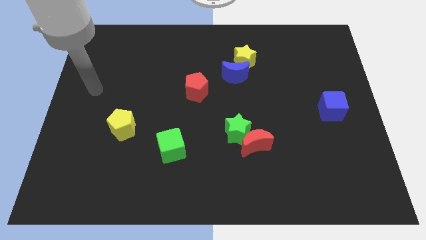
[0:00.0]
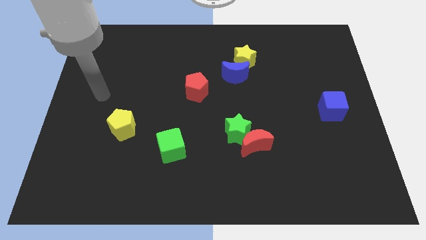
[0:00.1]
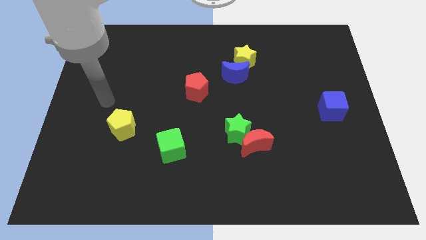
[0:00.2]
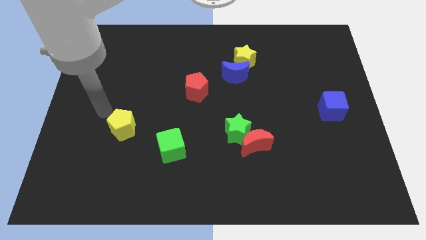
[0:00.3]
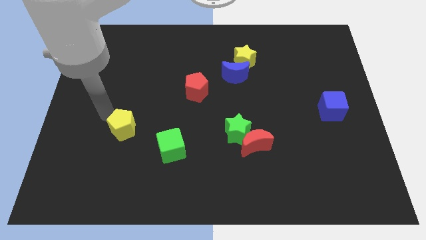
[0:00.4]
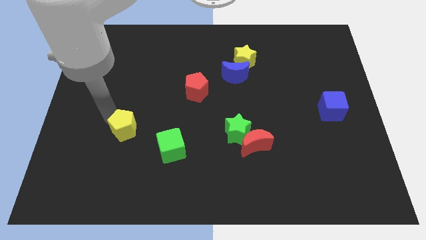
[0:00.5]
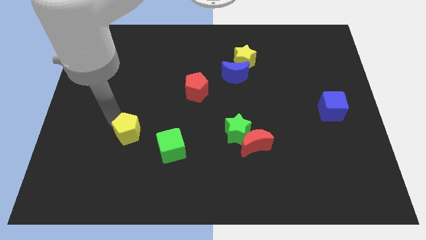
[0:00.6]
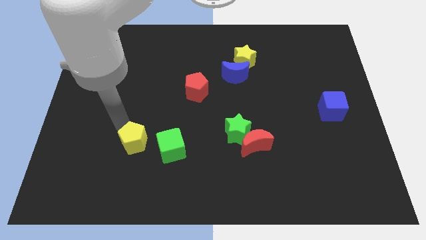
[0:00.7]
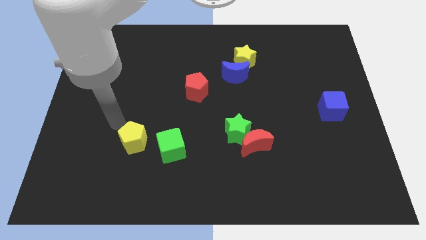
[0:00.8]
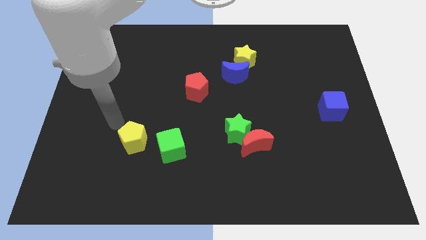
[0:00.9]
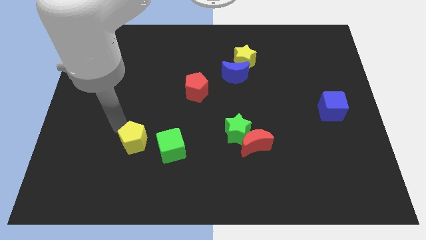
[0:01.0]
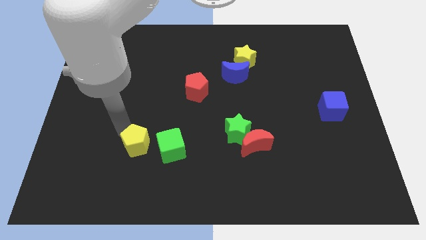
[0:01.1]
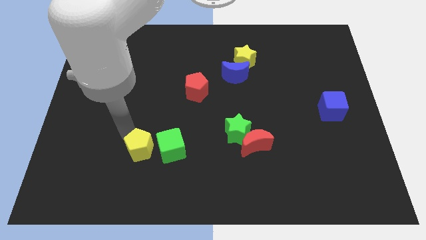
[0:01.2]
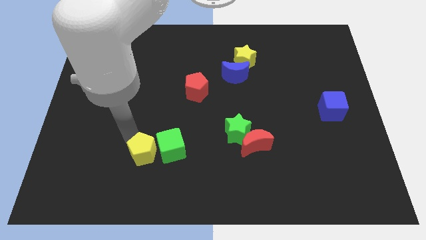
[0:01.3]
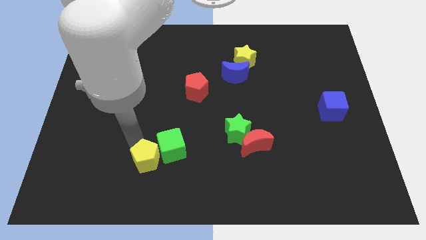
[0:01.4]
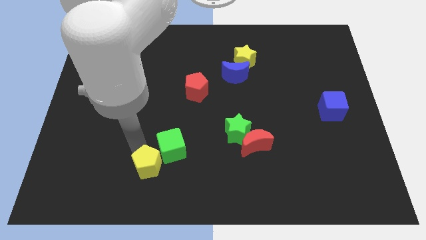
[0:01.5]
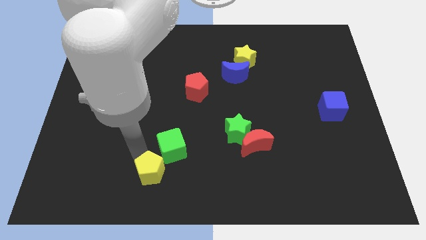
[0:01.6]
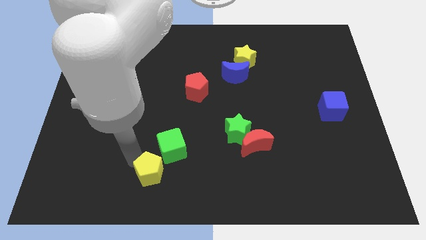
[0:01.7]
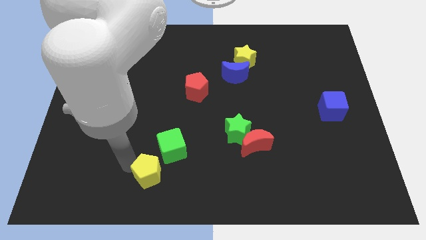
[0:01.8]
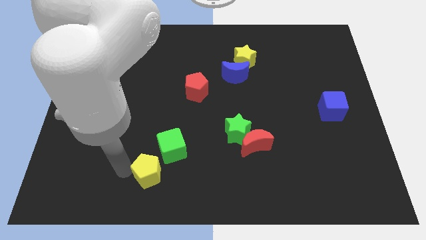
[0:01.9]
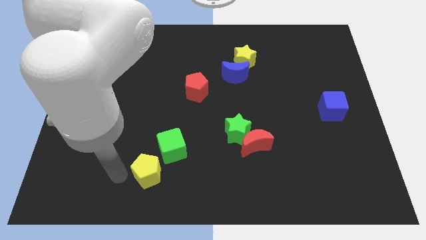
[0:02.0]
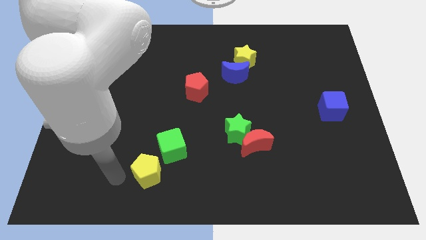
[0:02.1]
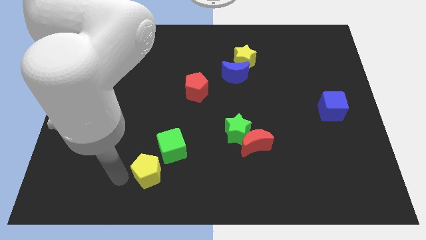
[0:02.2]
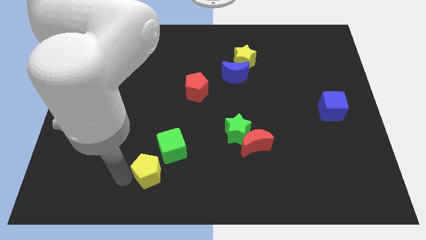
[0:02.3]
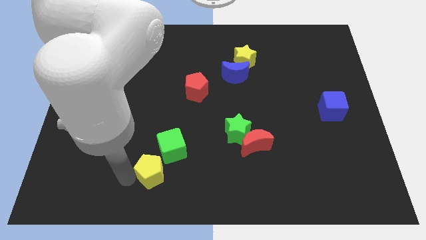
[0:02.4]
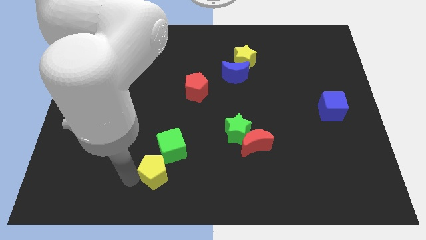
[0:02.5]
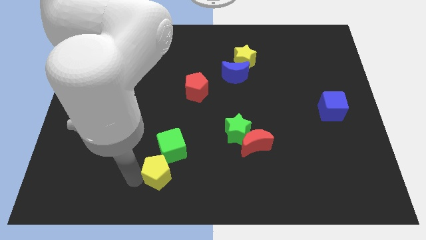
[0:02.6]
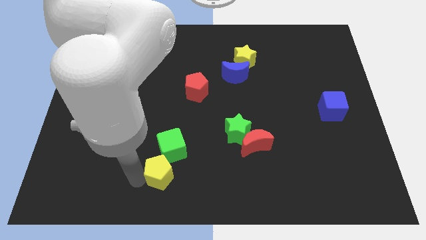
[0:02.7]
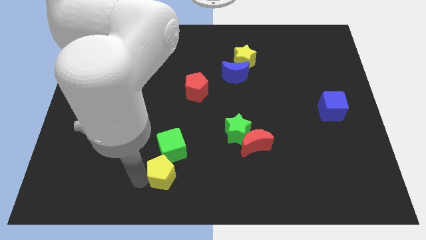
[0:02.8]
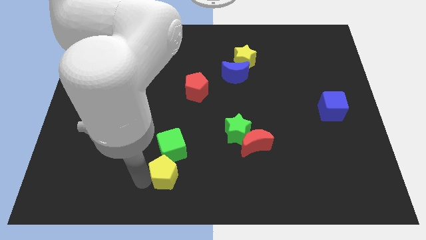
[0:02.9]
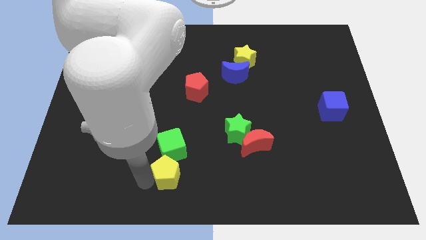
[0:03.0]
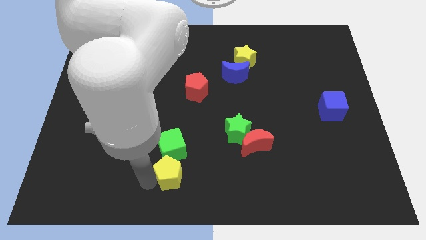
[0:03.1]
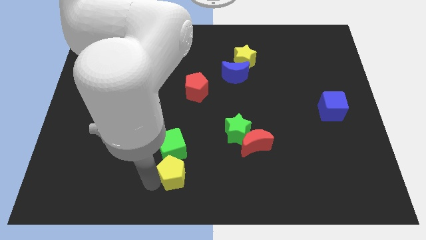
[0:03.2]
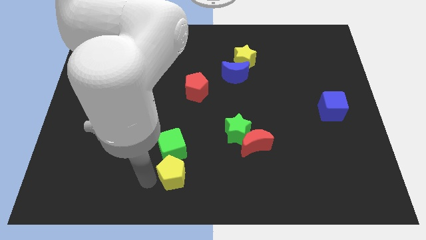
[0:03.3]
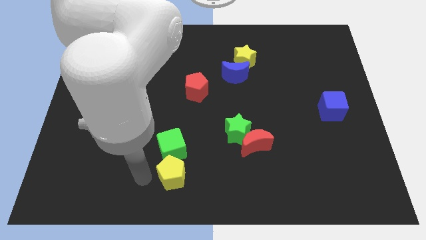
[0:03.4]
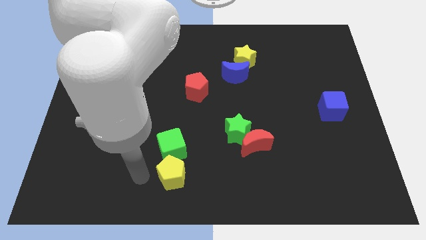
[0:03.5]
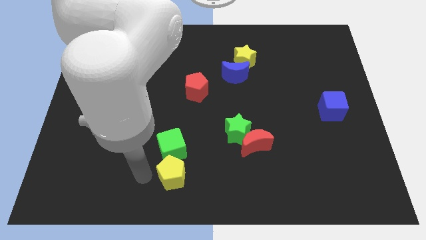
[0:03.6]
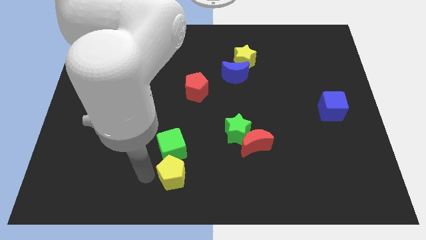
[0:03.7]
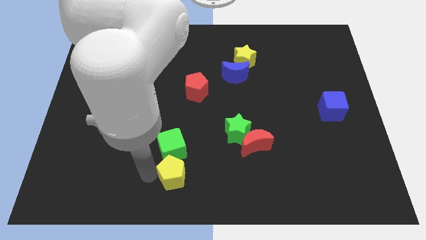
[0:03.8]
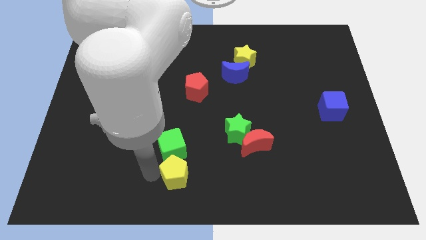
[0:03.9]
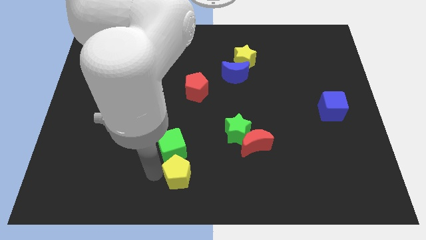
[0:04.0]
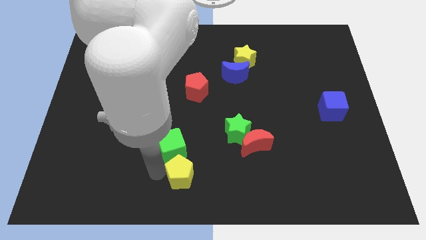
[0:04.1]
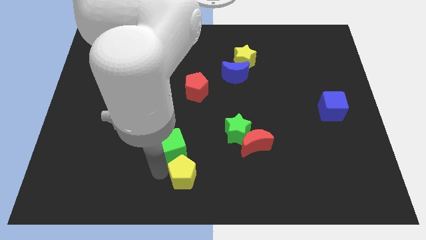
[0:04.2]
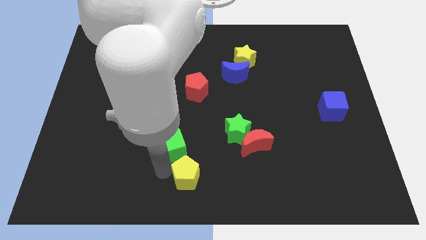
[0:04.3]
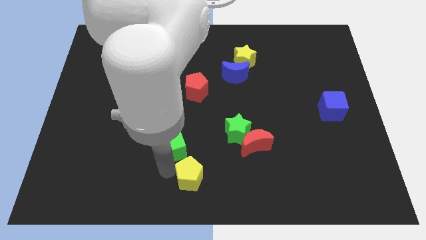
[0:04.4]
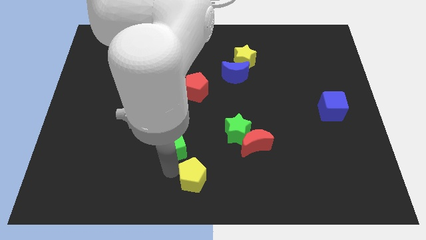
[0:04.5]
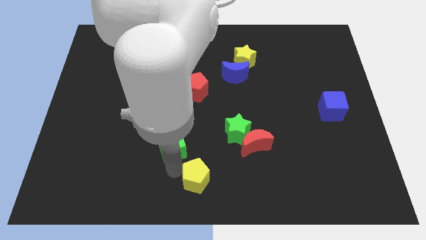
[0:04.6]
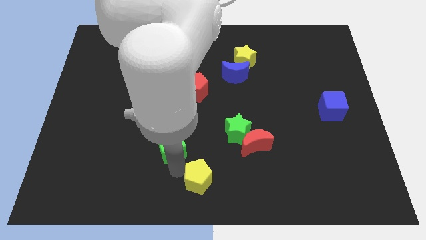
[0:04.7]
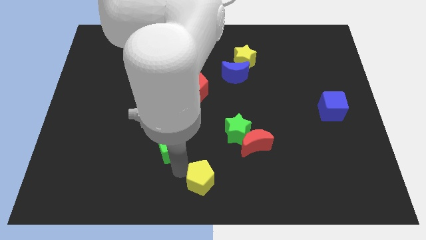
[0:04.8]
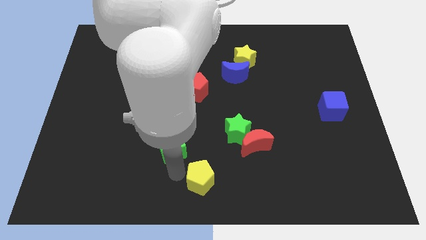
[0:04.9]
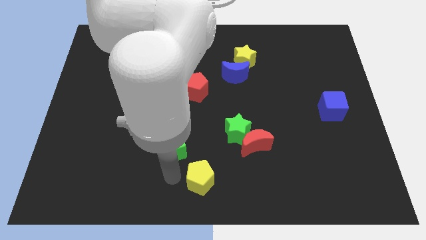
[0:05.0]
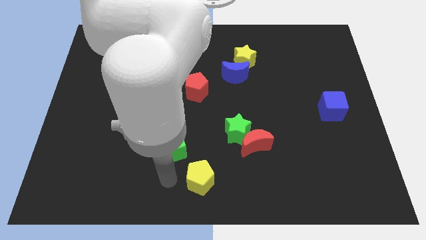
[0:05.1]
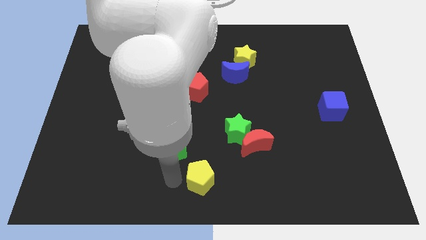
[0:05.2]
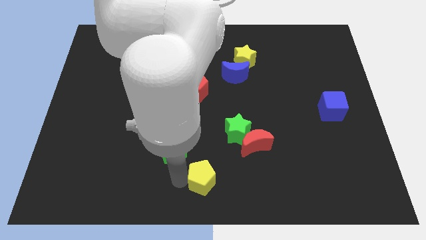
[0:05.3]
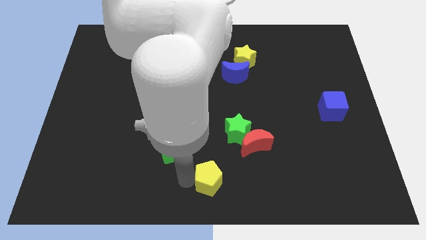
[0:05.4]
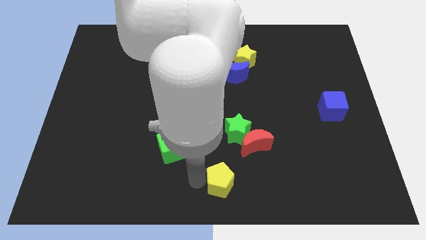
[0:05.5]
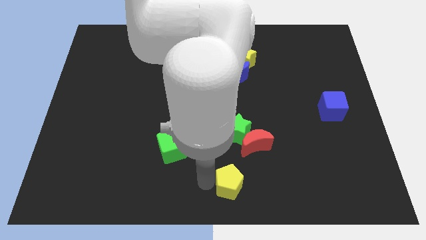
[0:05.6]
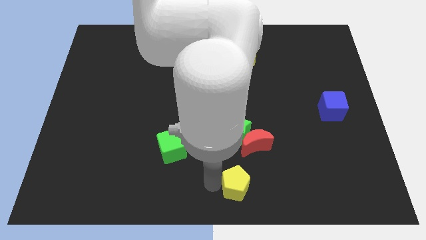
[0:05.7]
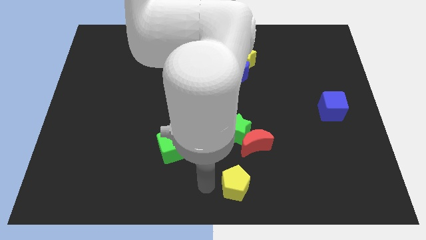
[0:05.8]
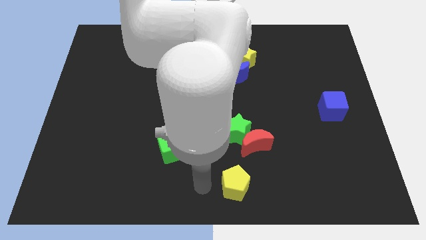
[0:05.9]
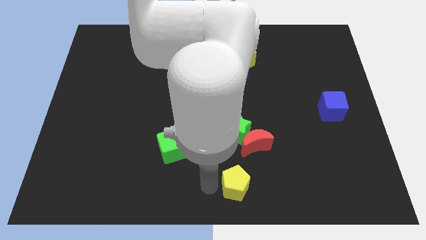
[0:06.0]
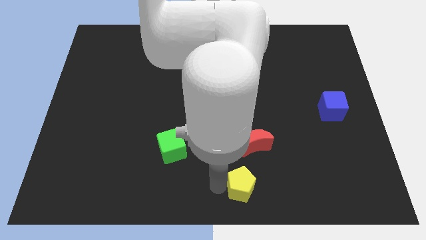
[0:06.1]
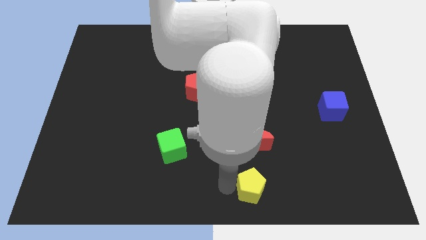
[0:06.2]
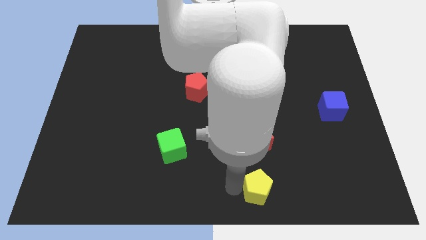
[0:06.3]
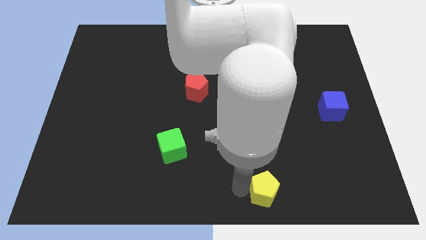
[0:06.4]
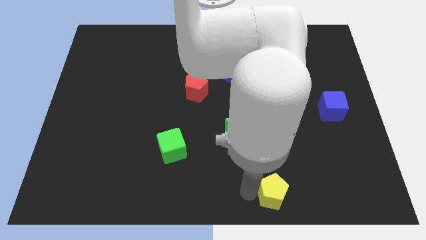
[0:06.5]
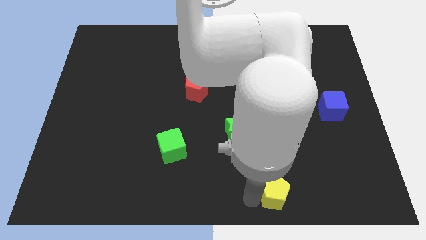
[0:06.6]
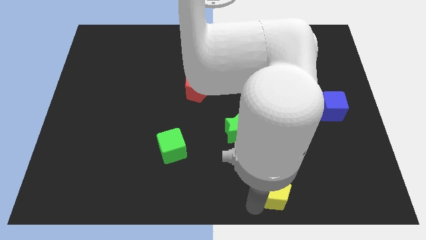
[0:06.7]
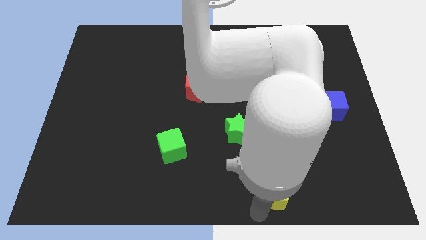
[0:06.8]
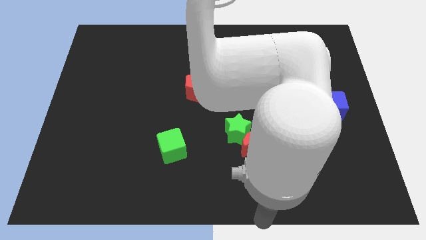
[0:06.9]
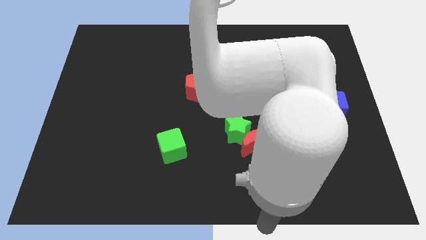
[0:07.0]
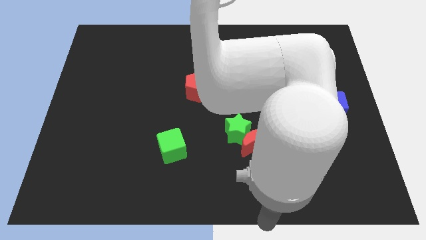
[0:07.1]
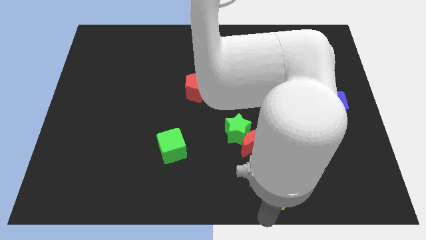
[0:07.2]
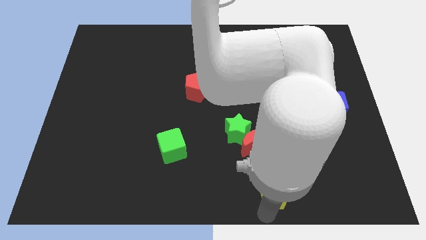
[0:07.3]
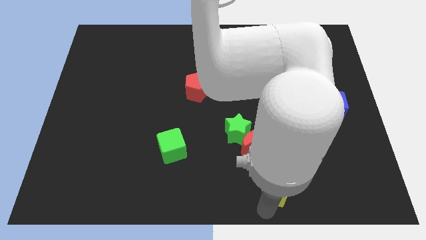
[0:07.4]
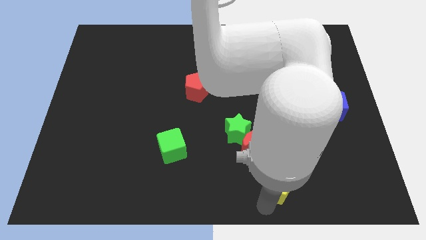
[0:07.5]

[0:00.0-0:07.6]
push the yellow pentagon diagonally down and to the right of the red moon
